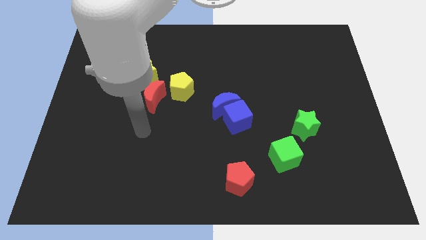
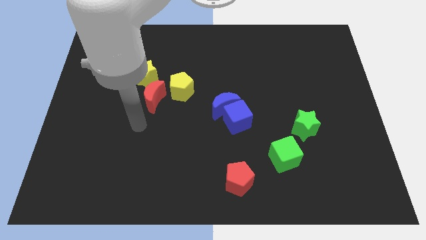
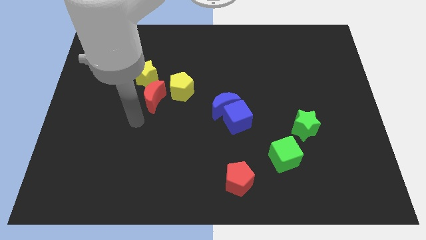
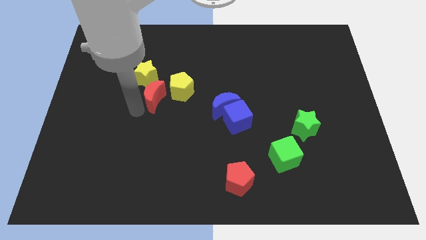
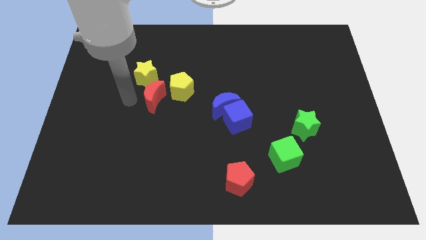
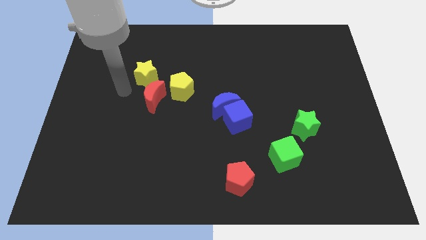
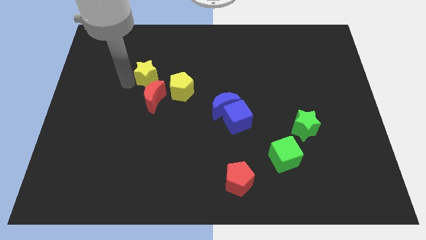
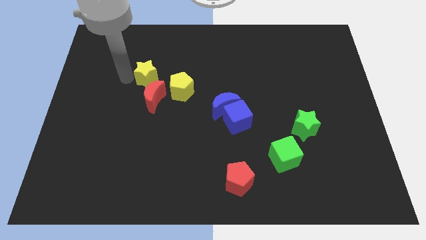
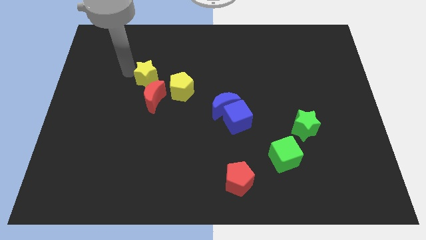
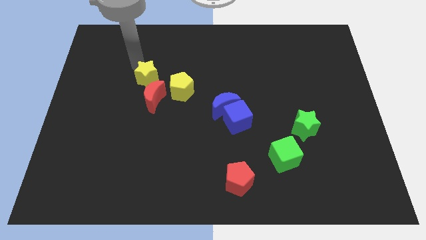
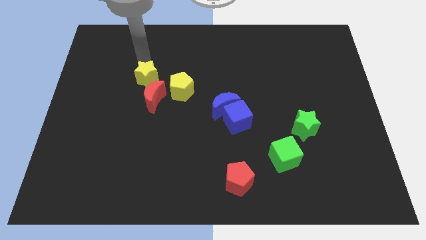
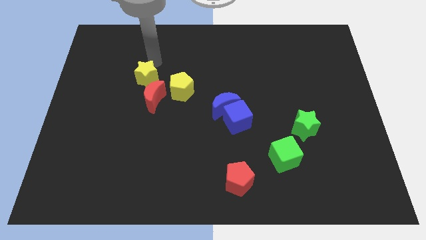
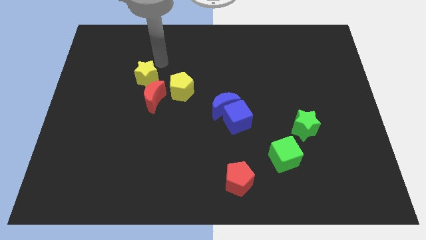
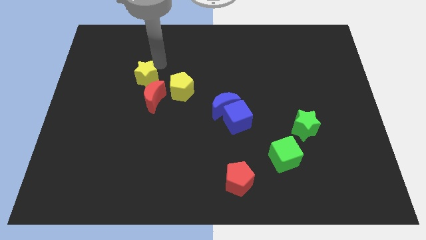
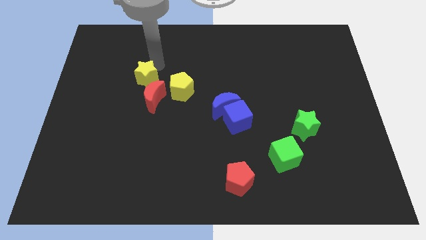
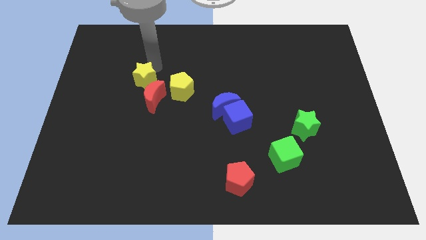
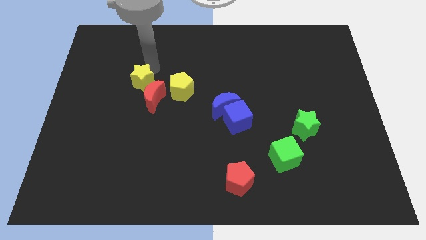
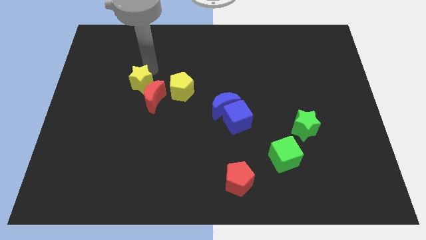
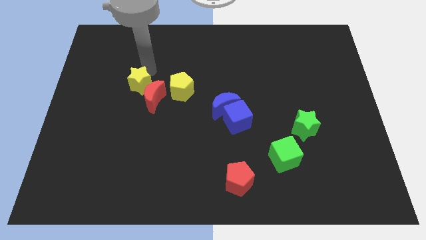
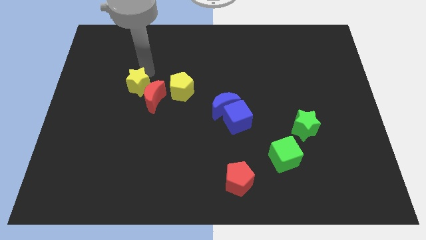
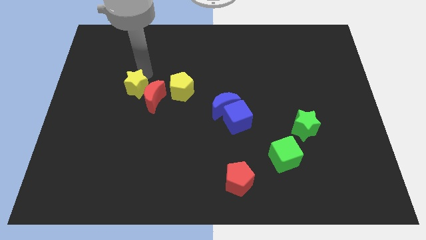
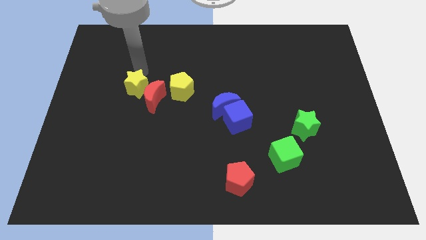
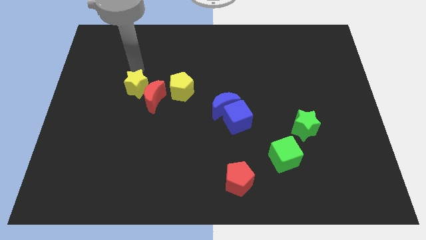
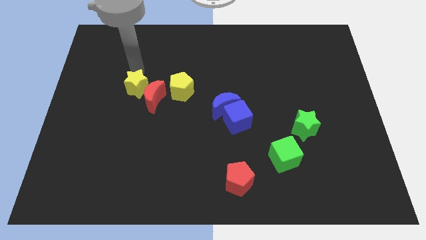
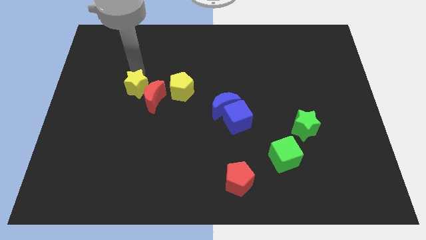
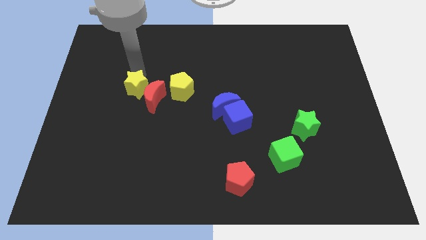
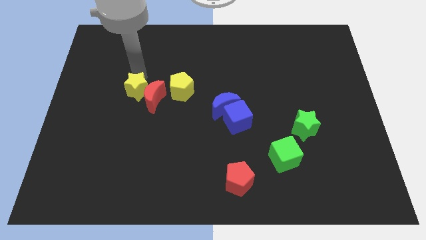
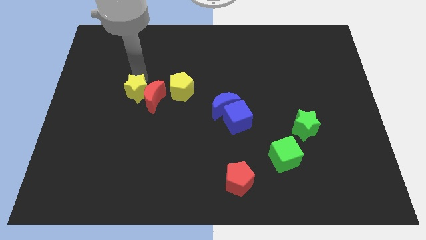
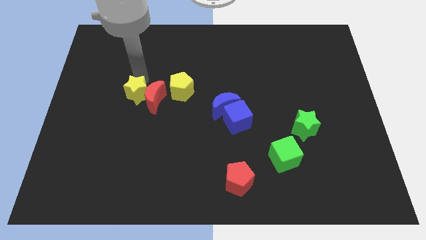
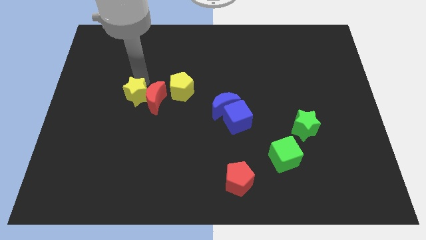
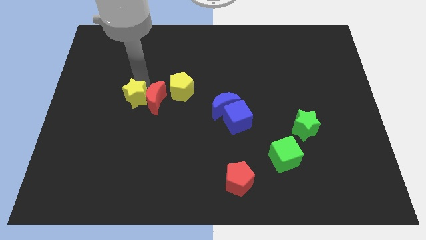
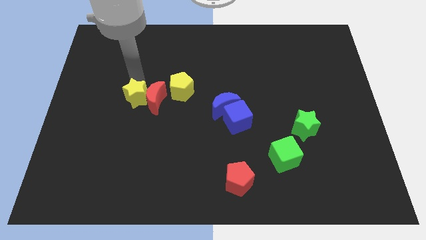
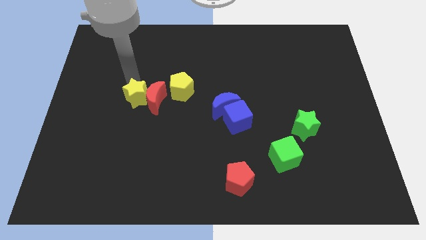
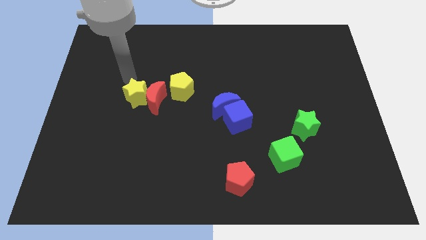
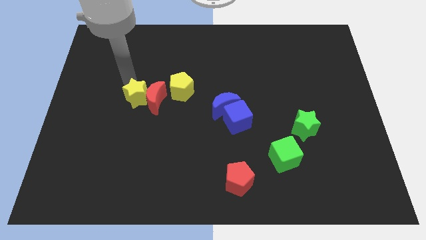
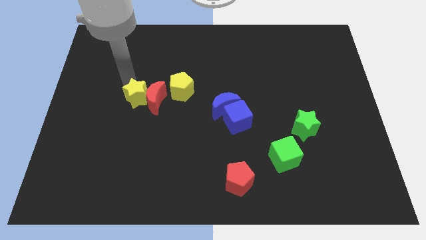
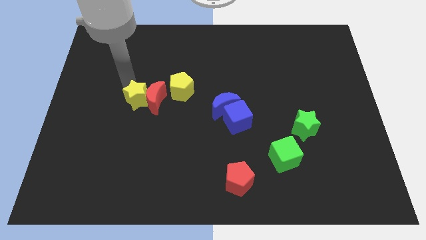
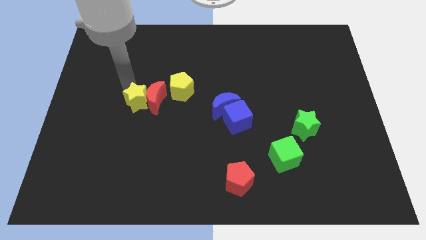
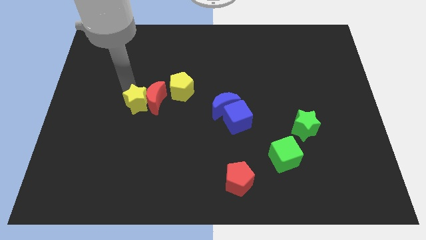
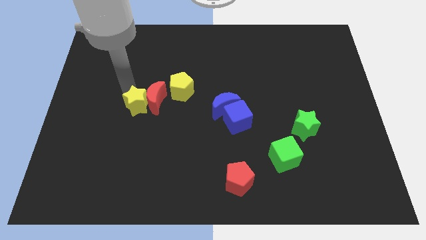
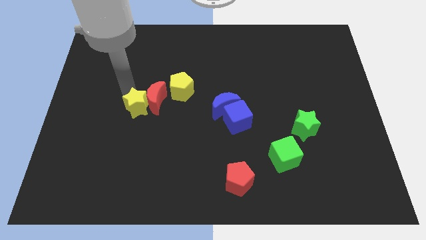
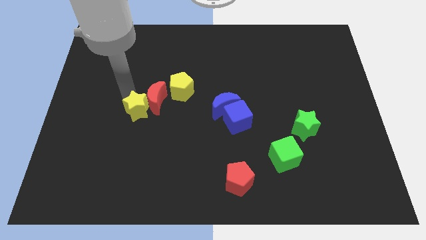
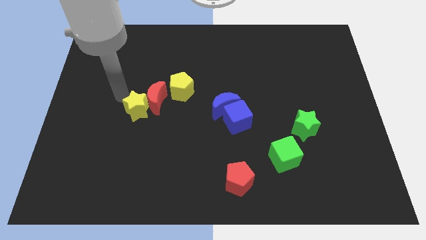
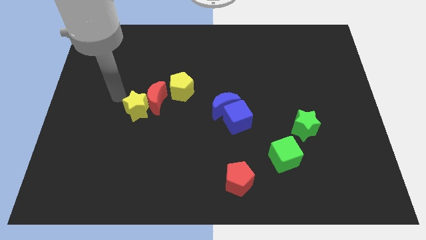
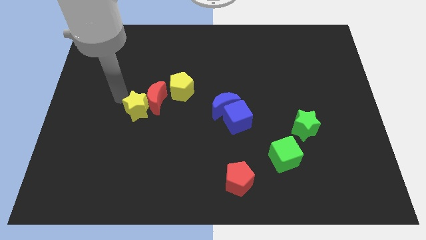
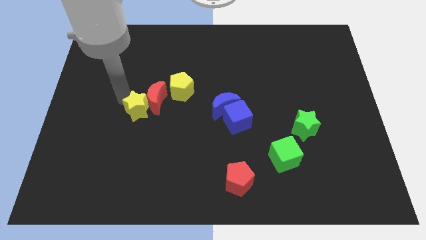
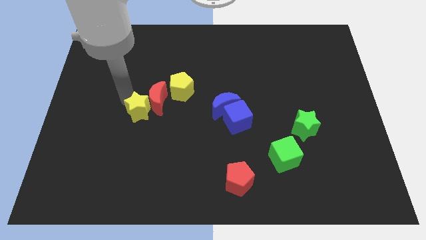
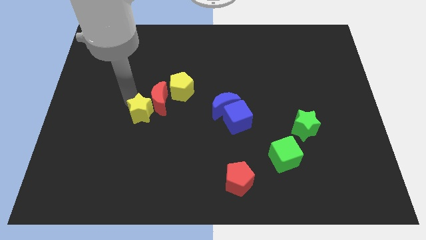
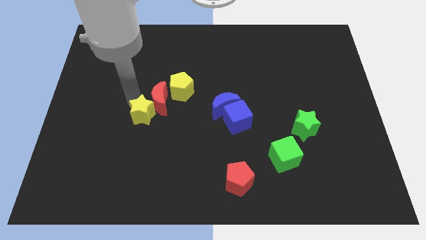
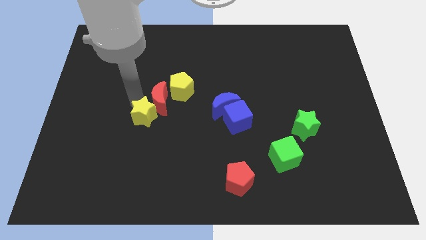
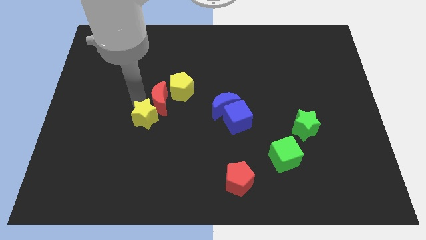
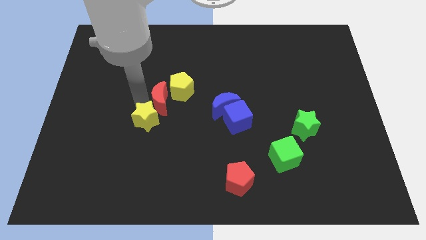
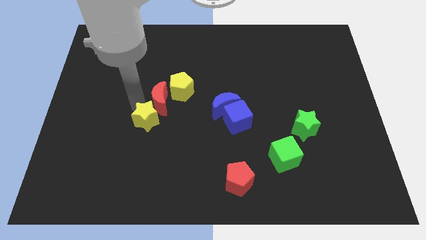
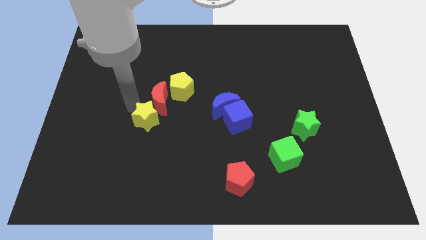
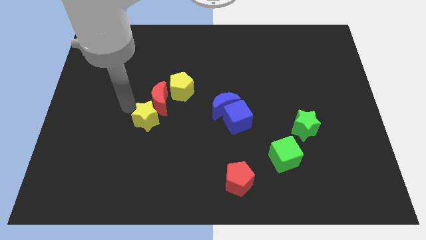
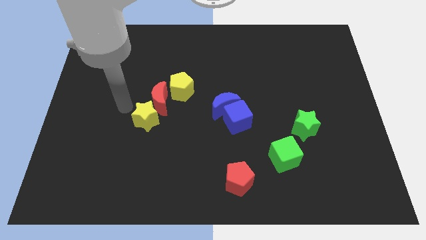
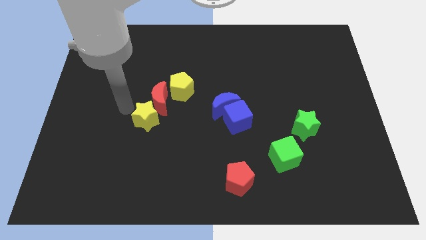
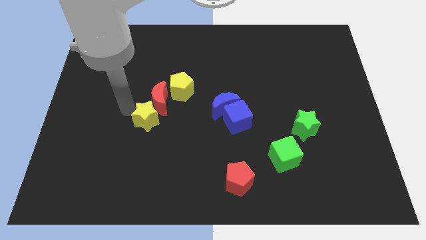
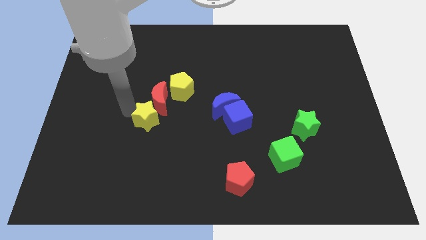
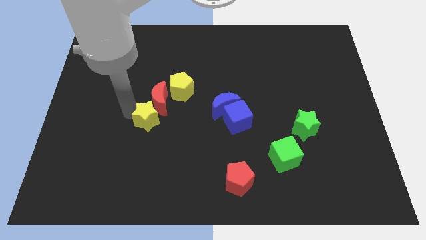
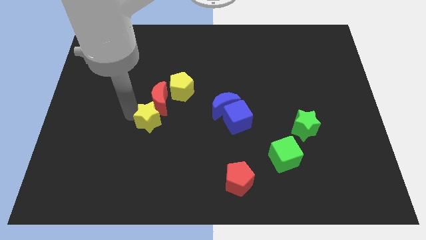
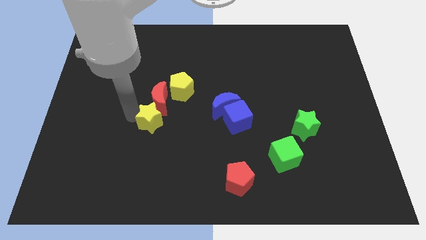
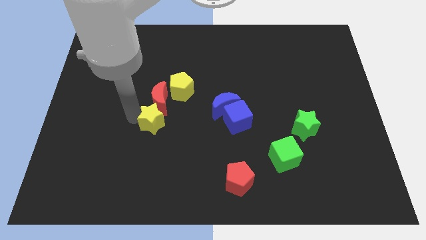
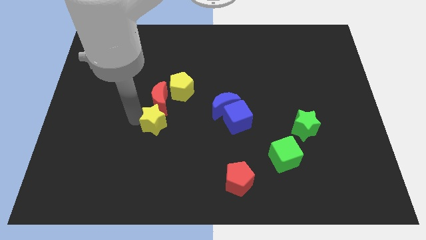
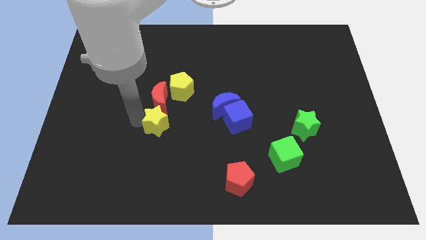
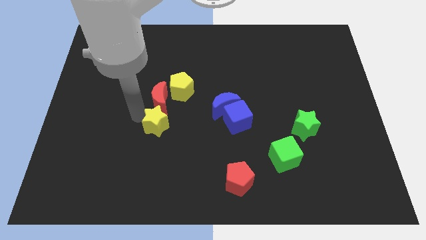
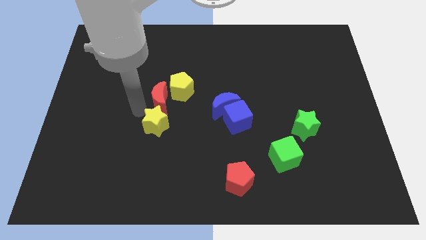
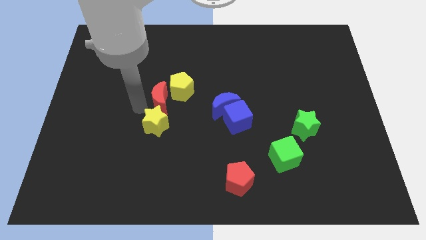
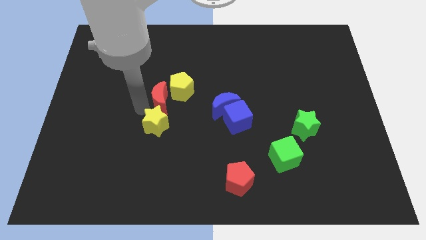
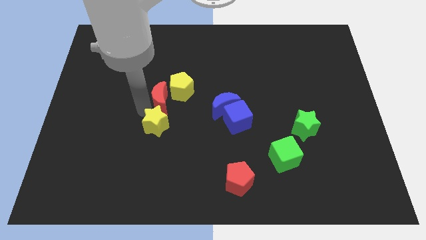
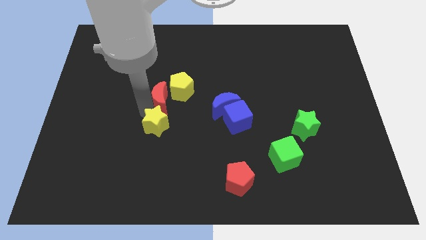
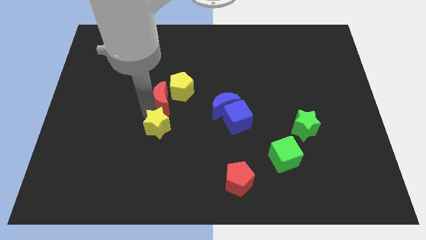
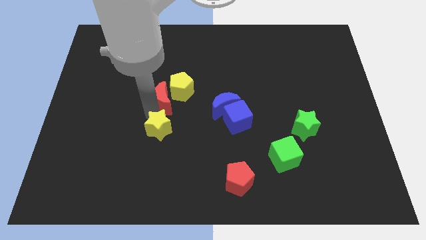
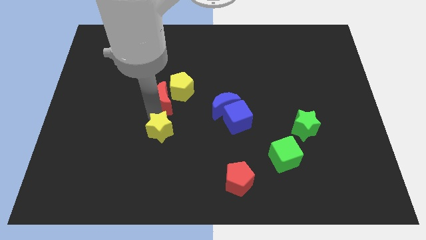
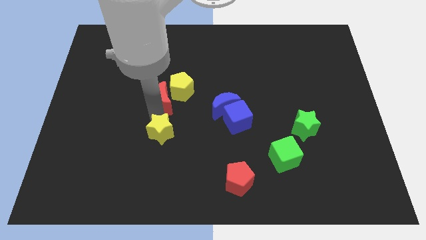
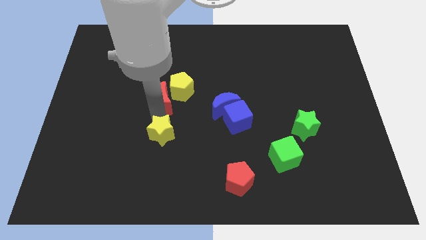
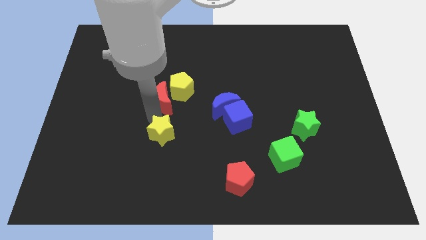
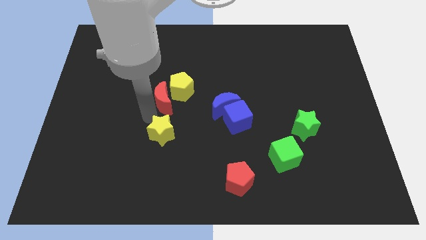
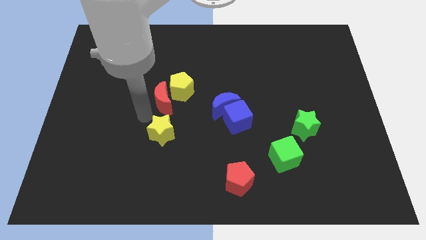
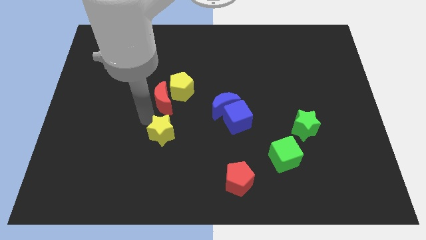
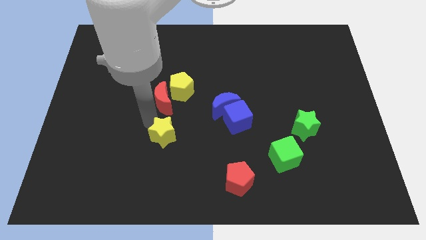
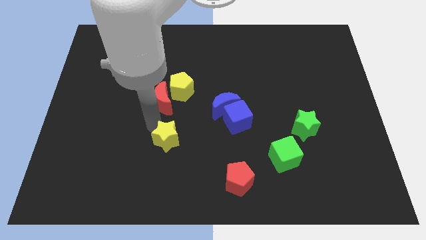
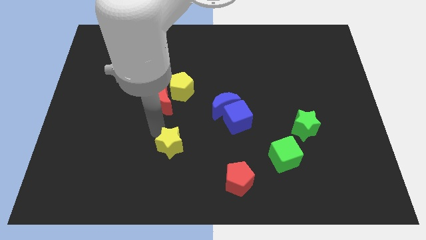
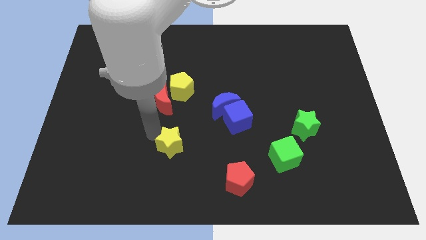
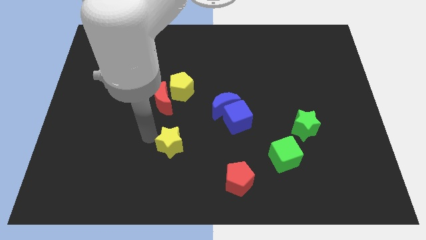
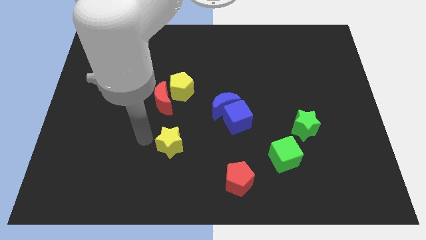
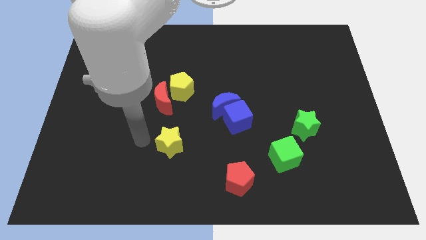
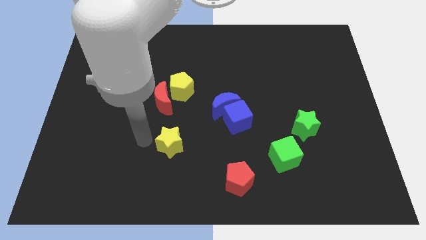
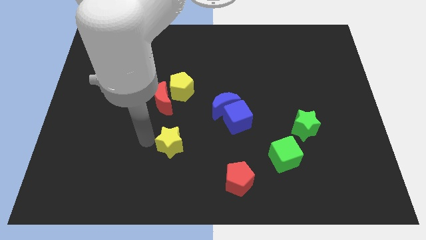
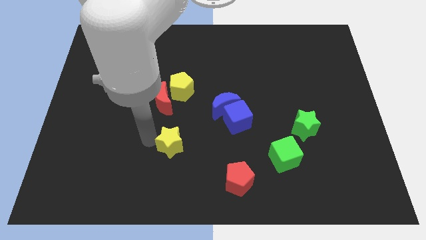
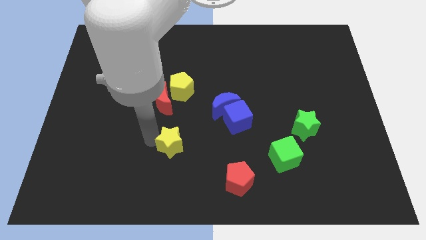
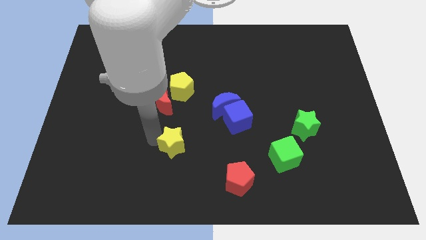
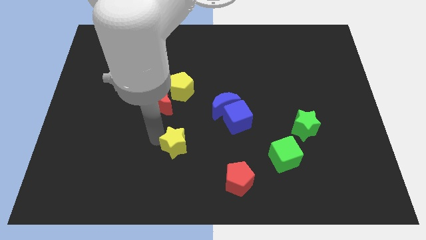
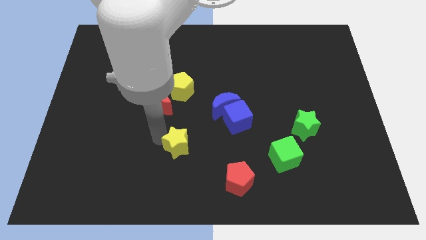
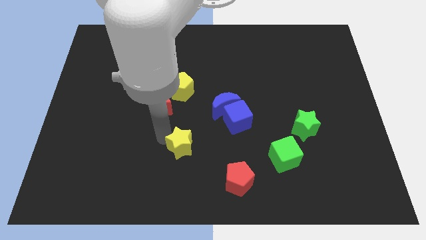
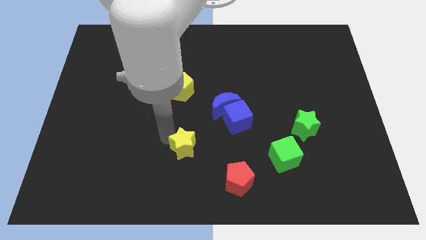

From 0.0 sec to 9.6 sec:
move the yellow star downwards and to the right
